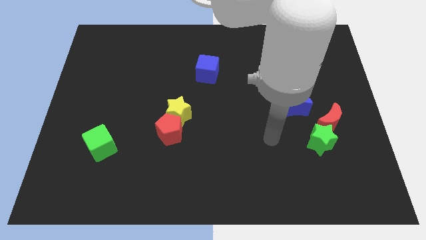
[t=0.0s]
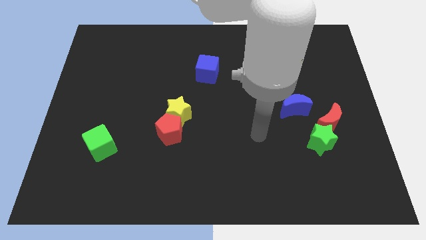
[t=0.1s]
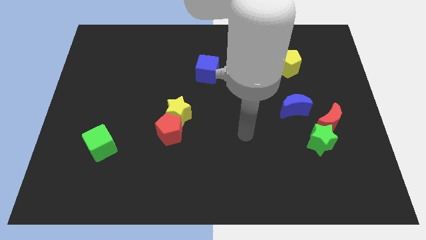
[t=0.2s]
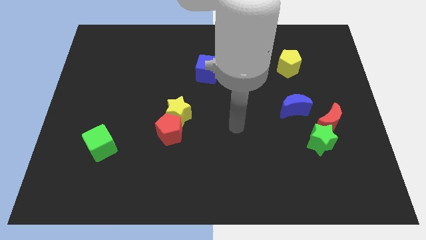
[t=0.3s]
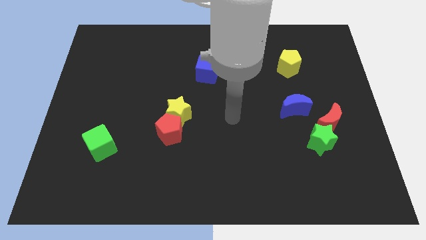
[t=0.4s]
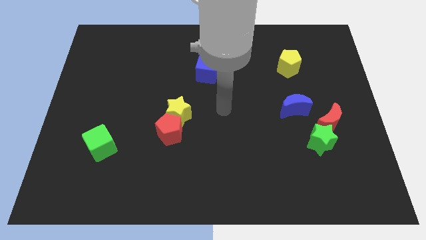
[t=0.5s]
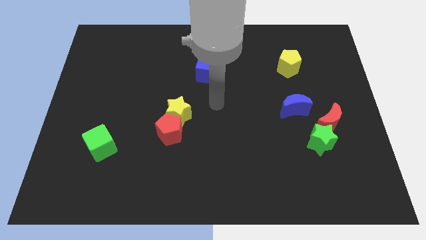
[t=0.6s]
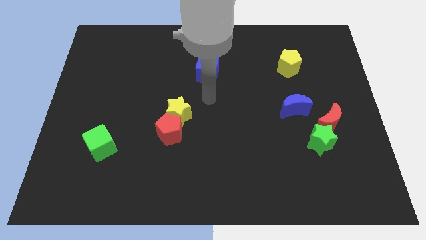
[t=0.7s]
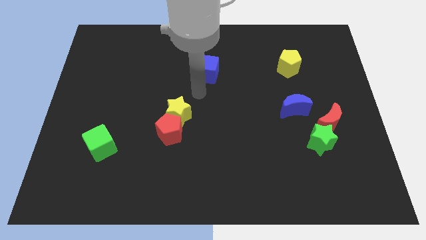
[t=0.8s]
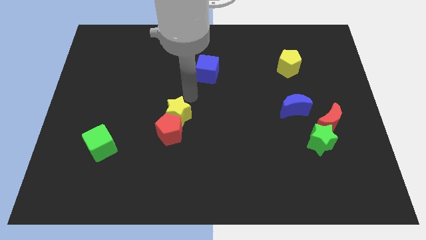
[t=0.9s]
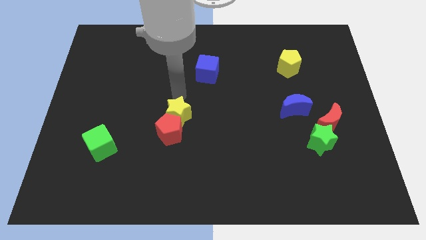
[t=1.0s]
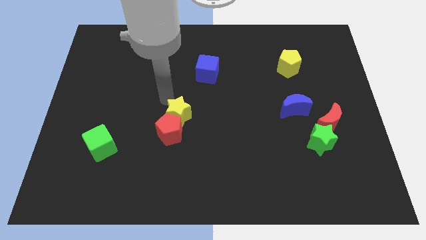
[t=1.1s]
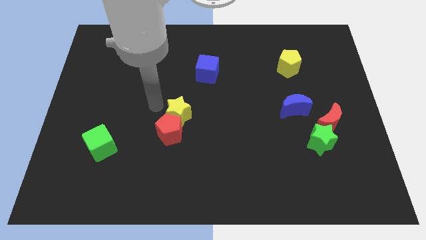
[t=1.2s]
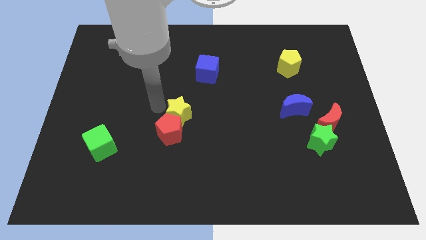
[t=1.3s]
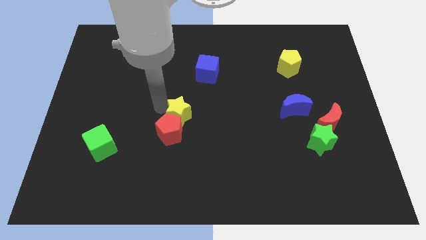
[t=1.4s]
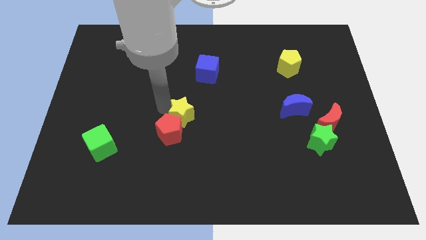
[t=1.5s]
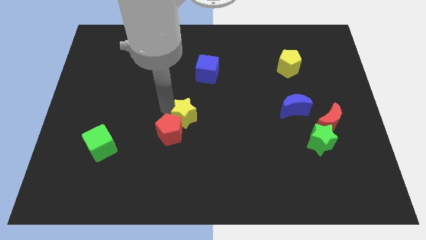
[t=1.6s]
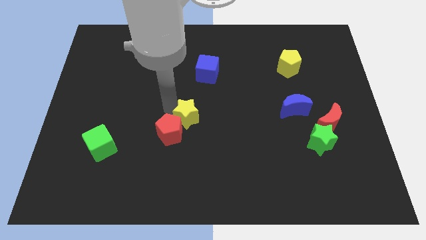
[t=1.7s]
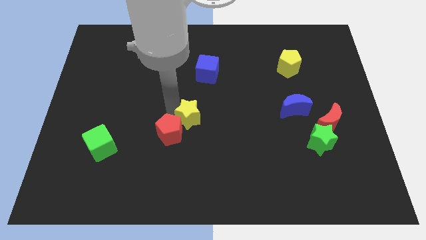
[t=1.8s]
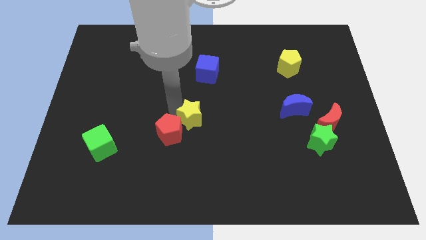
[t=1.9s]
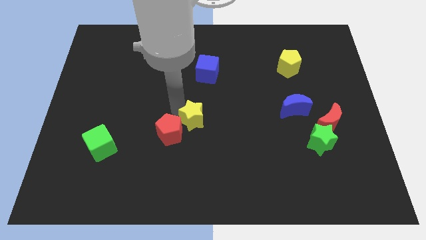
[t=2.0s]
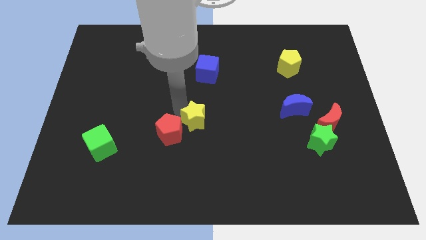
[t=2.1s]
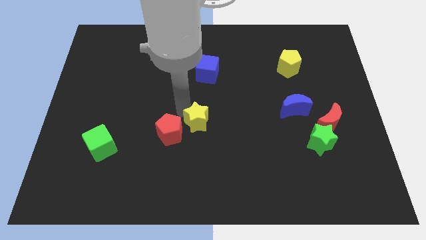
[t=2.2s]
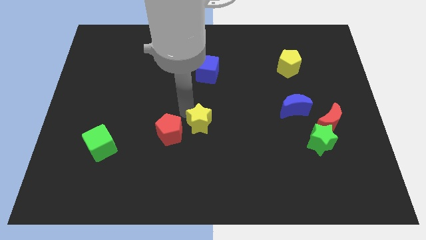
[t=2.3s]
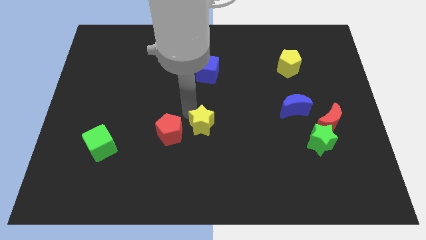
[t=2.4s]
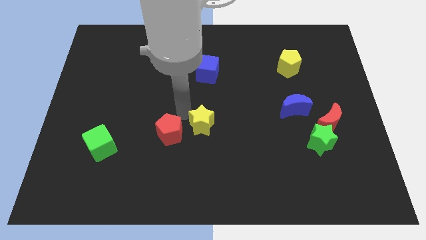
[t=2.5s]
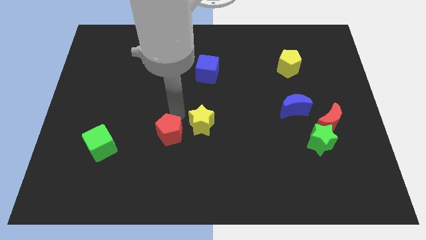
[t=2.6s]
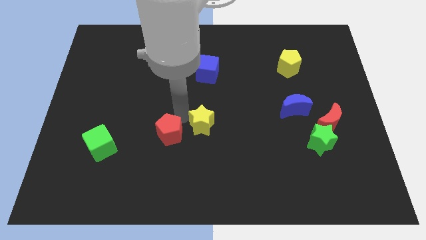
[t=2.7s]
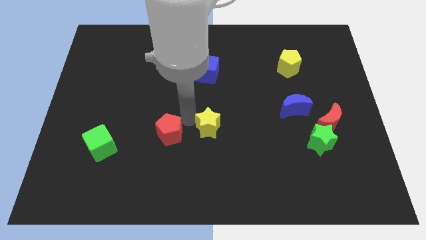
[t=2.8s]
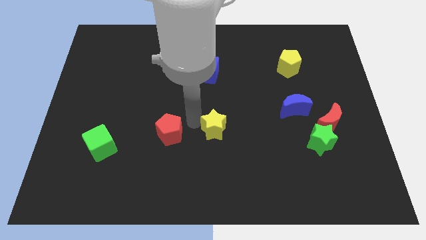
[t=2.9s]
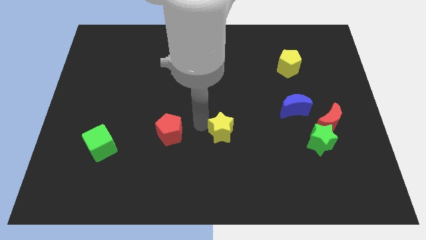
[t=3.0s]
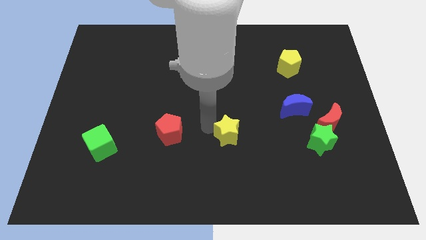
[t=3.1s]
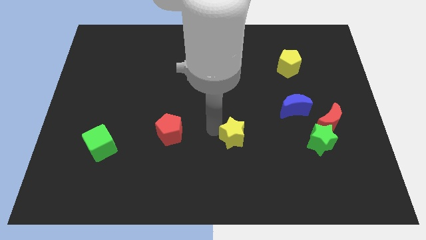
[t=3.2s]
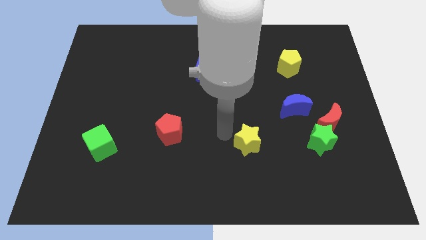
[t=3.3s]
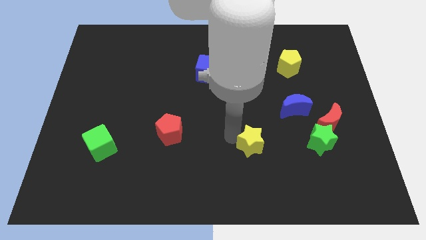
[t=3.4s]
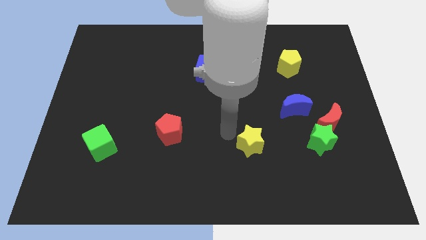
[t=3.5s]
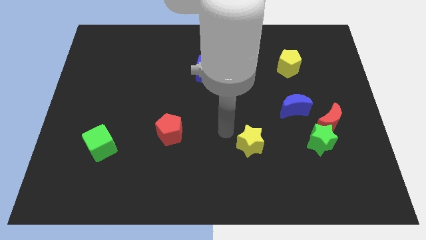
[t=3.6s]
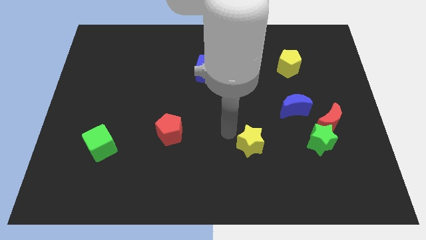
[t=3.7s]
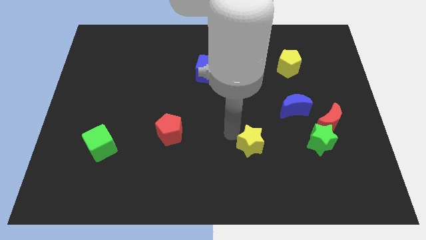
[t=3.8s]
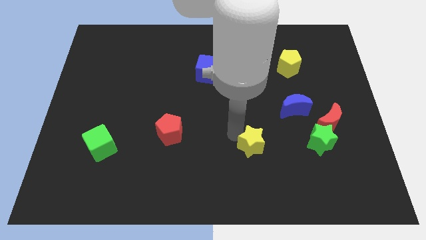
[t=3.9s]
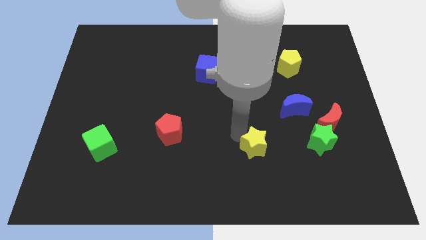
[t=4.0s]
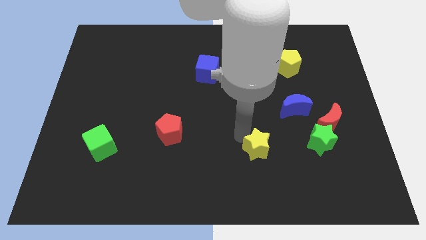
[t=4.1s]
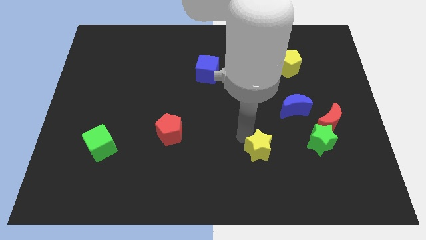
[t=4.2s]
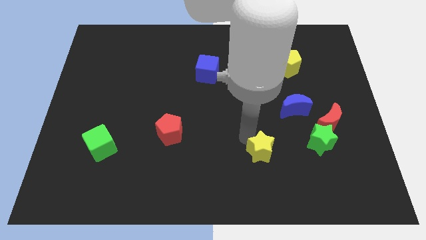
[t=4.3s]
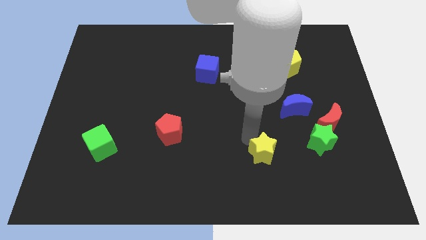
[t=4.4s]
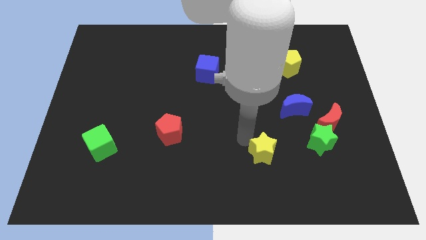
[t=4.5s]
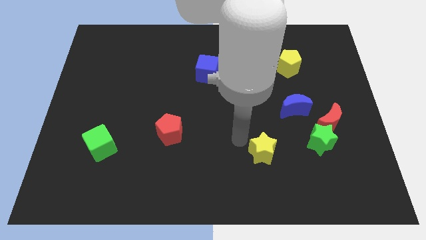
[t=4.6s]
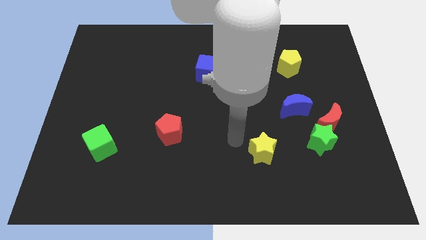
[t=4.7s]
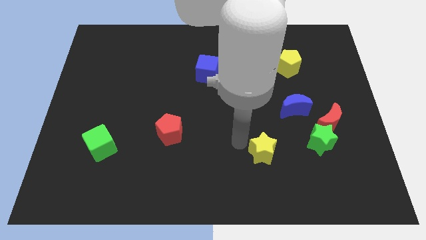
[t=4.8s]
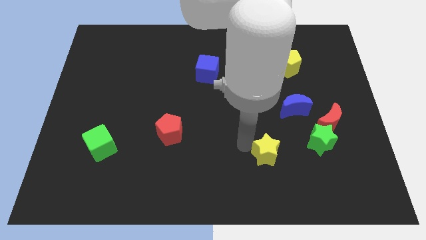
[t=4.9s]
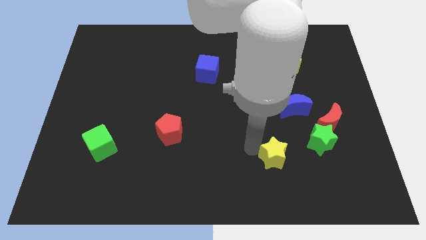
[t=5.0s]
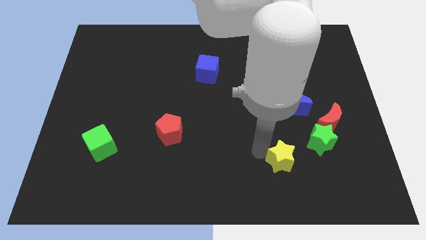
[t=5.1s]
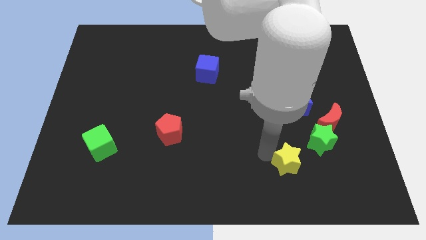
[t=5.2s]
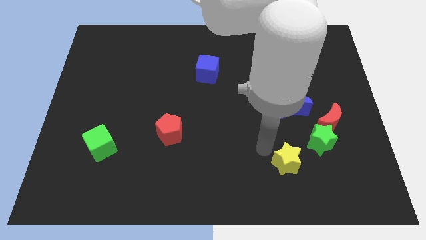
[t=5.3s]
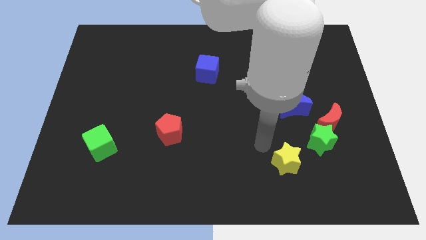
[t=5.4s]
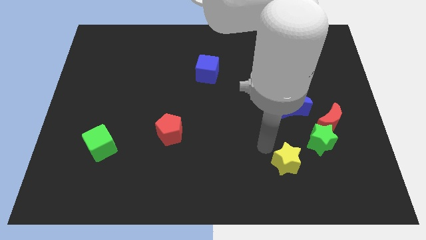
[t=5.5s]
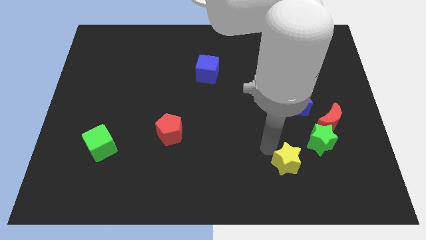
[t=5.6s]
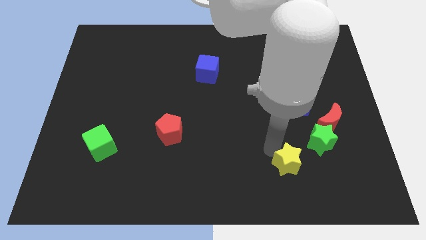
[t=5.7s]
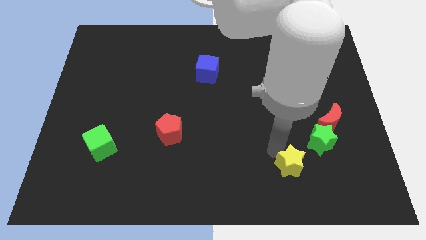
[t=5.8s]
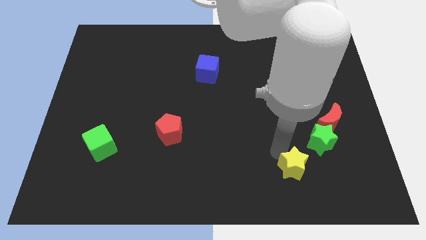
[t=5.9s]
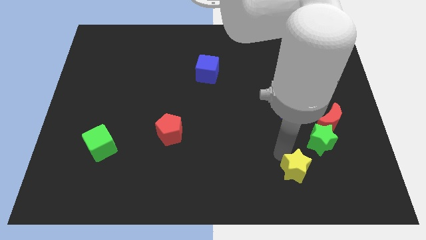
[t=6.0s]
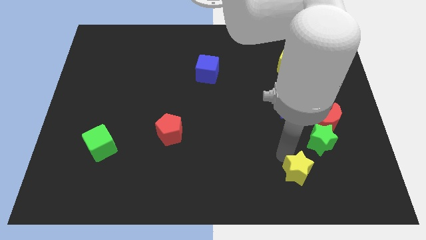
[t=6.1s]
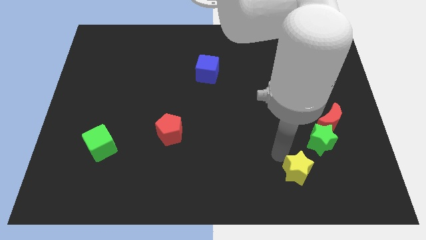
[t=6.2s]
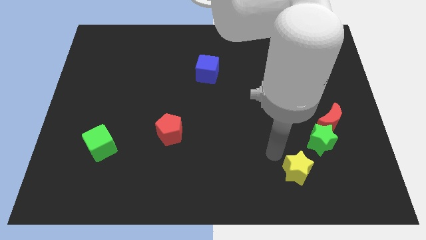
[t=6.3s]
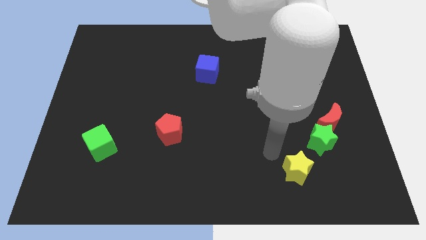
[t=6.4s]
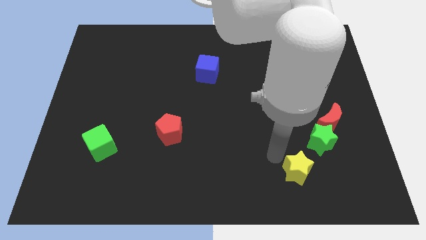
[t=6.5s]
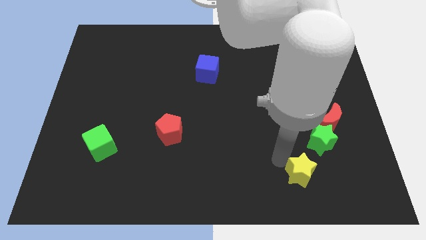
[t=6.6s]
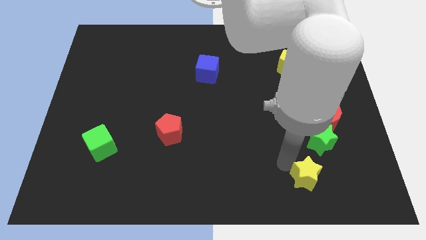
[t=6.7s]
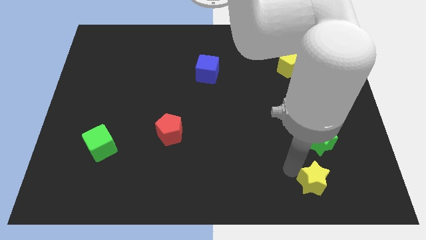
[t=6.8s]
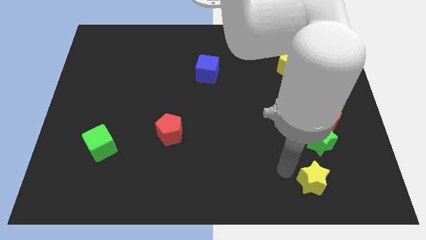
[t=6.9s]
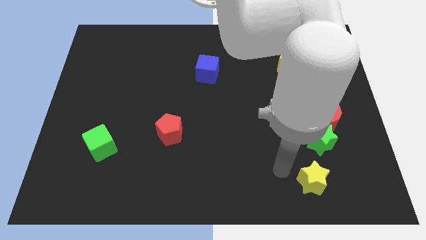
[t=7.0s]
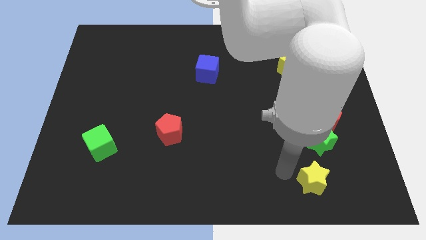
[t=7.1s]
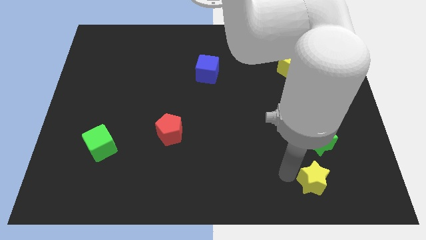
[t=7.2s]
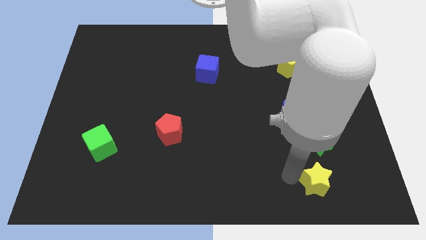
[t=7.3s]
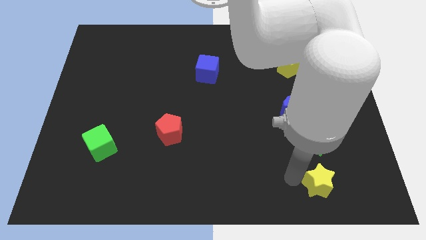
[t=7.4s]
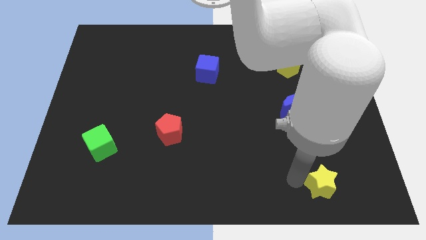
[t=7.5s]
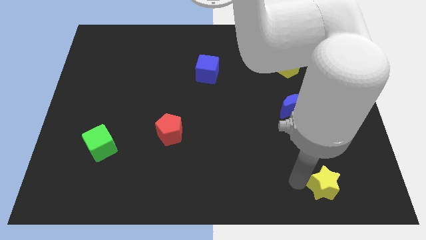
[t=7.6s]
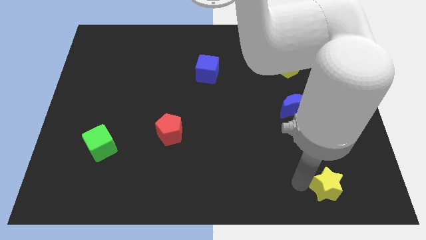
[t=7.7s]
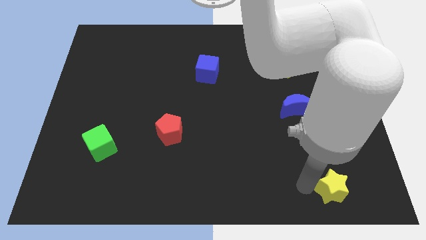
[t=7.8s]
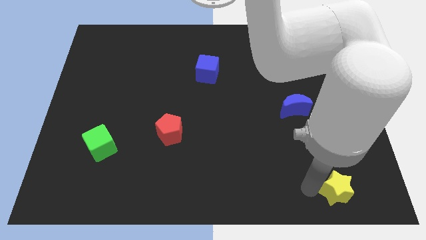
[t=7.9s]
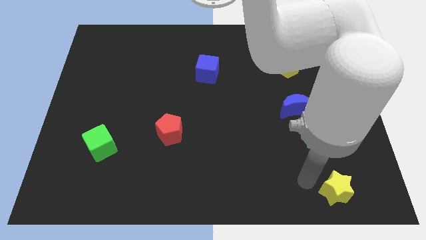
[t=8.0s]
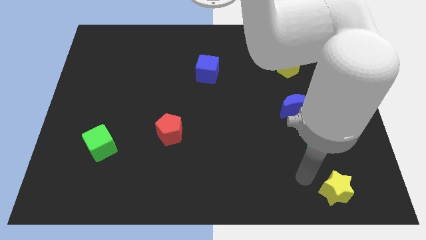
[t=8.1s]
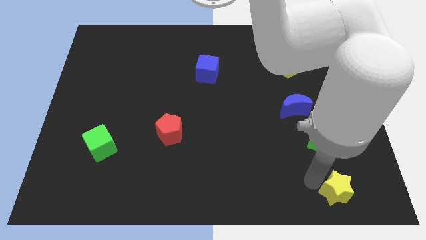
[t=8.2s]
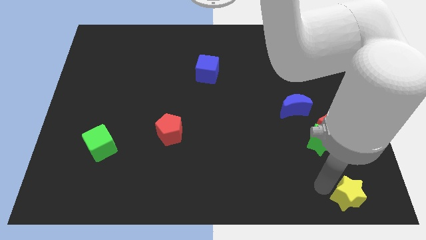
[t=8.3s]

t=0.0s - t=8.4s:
put the yellow star to the bottom right of the board
